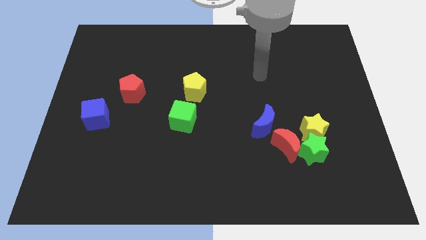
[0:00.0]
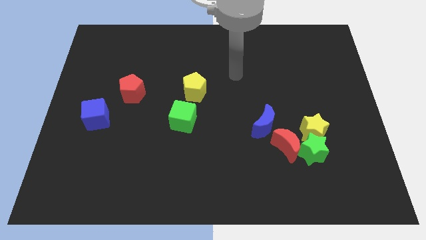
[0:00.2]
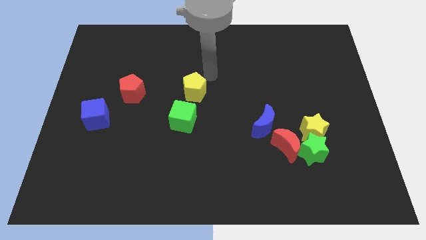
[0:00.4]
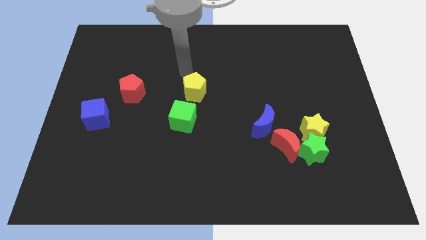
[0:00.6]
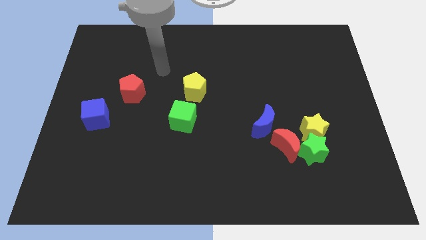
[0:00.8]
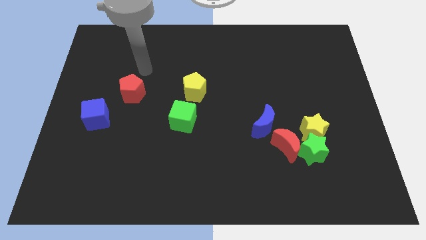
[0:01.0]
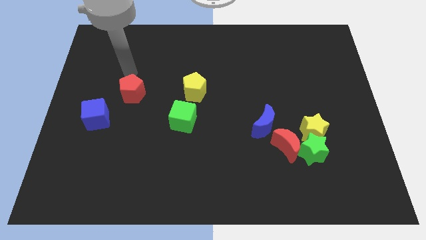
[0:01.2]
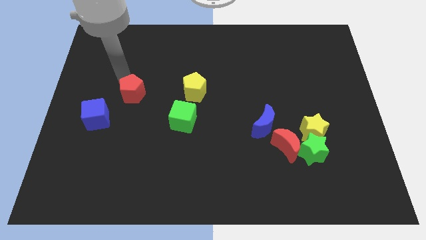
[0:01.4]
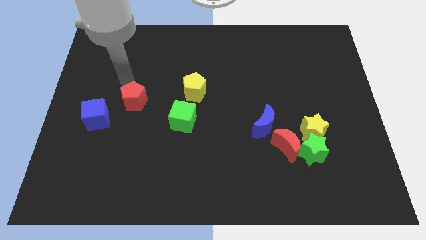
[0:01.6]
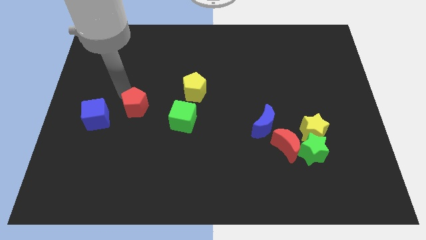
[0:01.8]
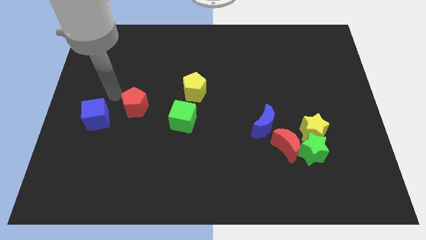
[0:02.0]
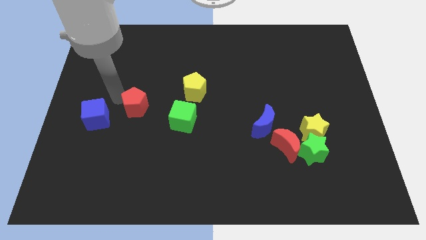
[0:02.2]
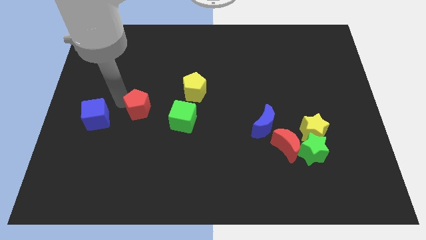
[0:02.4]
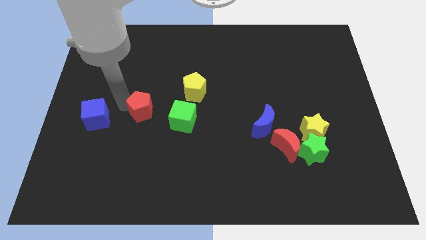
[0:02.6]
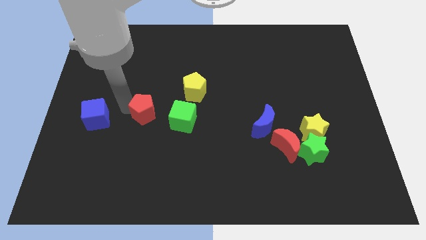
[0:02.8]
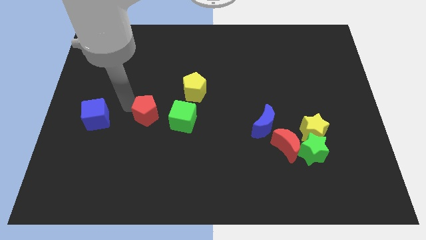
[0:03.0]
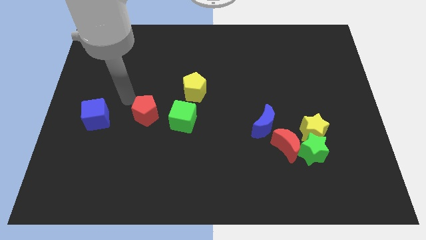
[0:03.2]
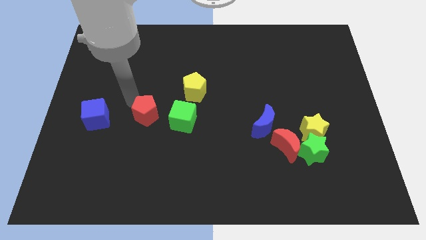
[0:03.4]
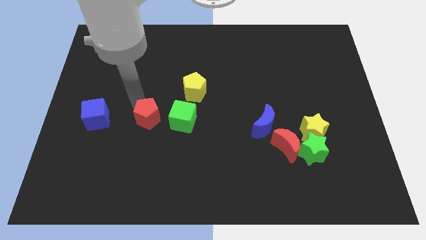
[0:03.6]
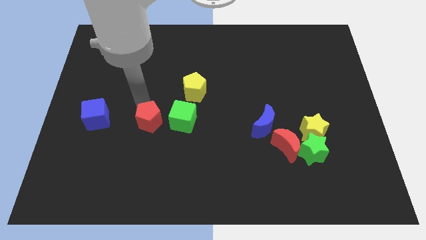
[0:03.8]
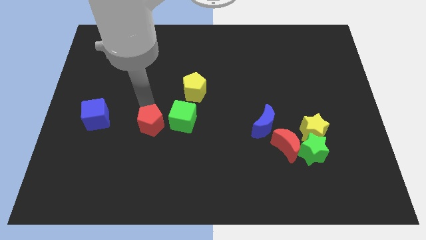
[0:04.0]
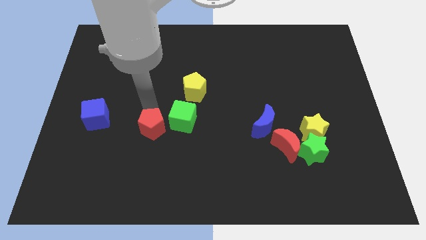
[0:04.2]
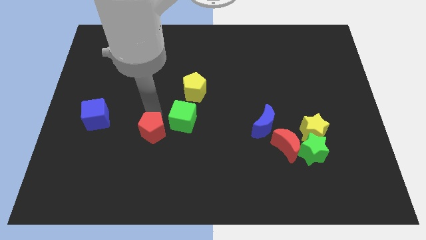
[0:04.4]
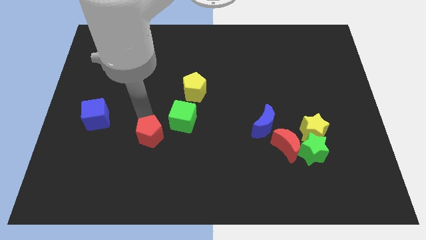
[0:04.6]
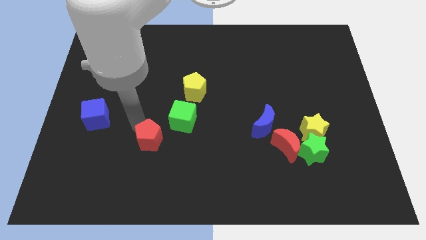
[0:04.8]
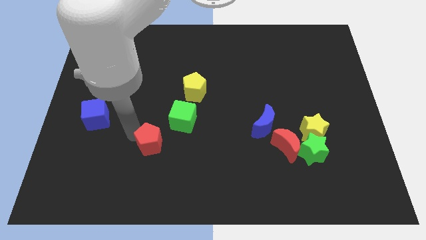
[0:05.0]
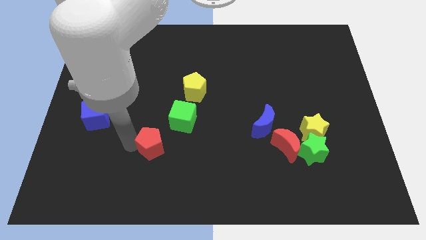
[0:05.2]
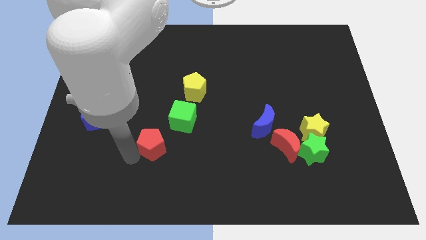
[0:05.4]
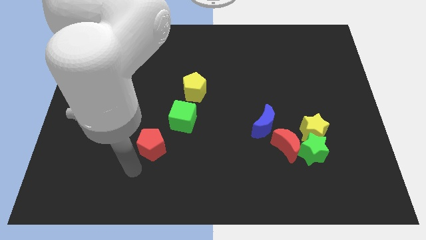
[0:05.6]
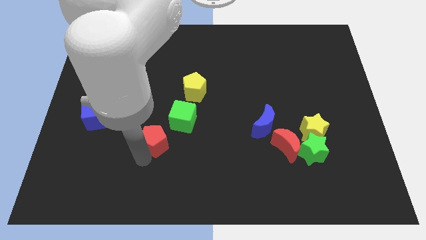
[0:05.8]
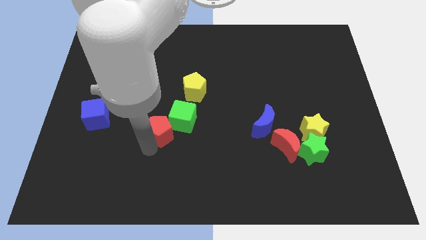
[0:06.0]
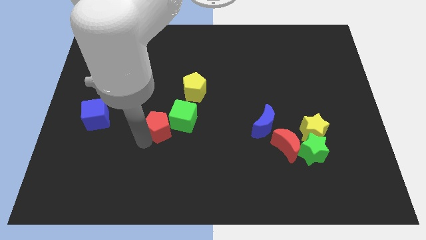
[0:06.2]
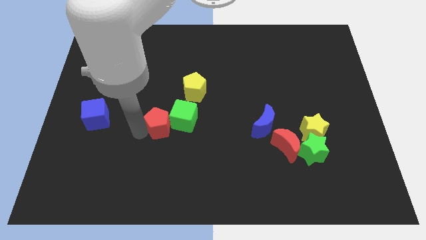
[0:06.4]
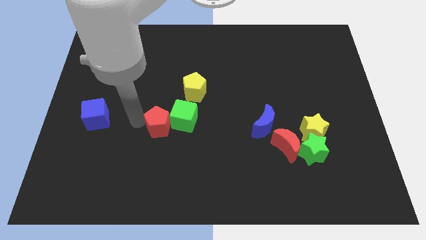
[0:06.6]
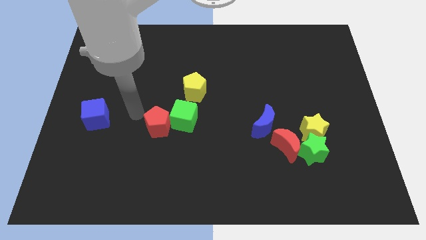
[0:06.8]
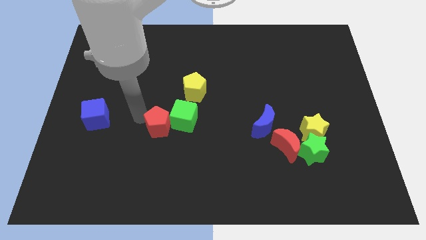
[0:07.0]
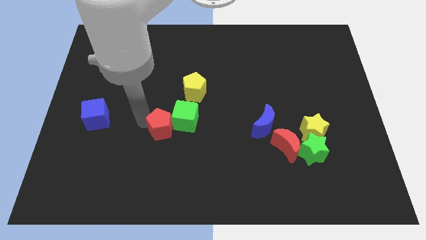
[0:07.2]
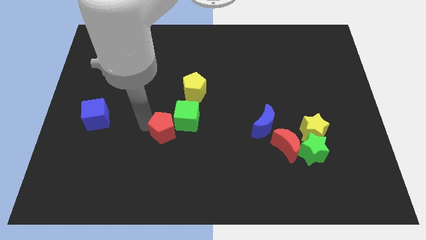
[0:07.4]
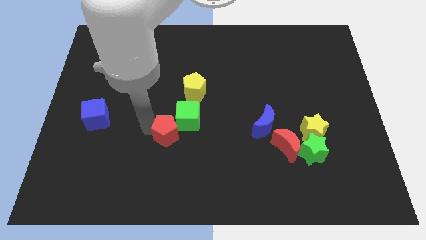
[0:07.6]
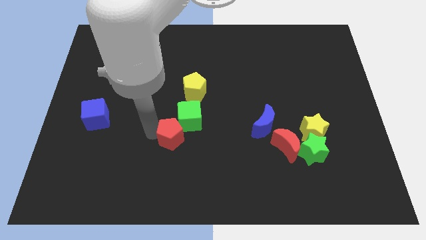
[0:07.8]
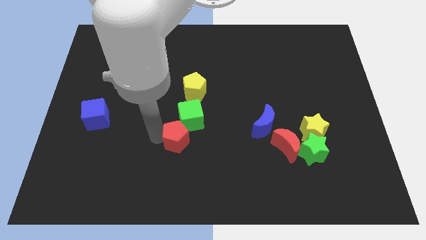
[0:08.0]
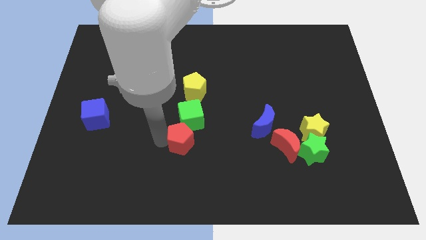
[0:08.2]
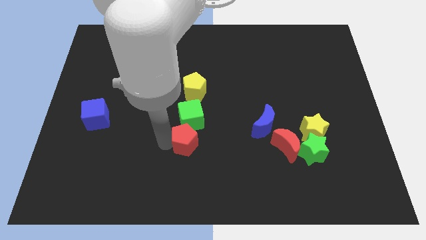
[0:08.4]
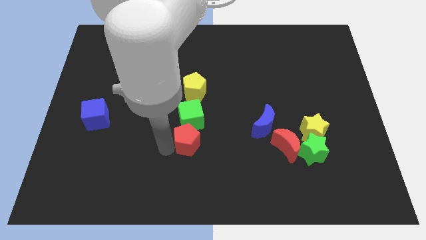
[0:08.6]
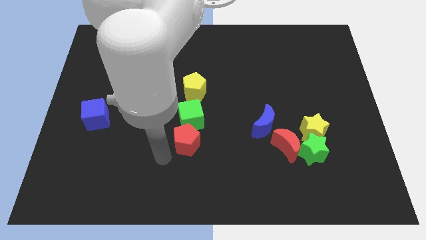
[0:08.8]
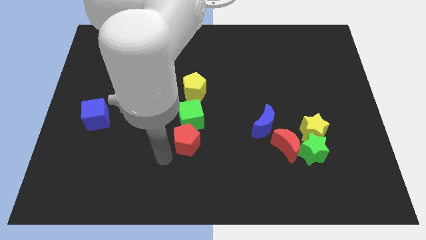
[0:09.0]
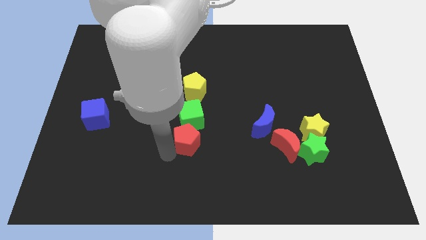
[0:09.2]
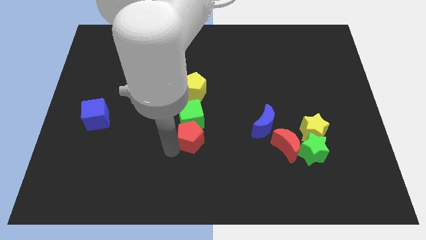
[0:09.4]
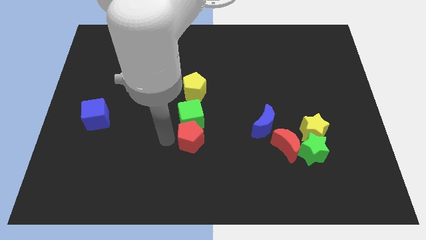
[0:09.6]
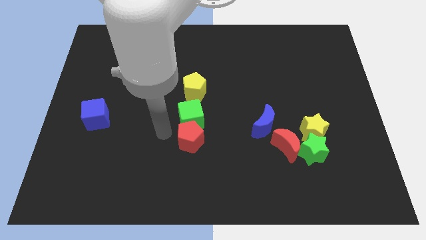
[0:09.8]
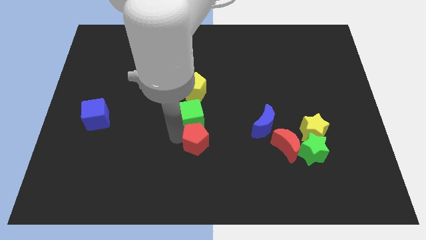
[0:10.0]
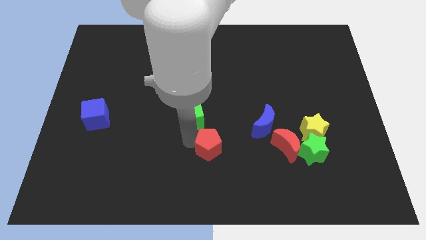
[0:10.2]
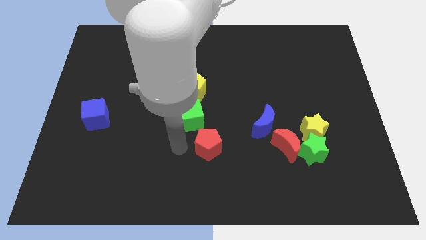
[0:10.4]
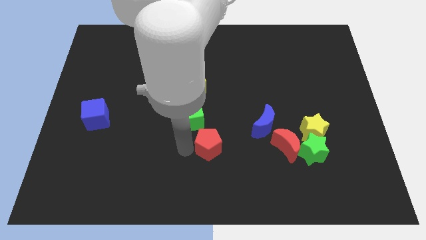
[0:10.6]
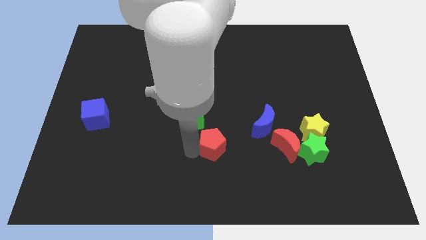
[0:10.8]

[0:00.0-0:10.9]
push the red pentagon to the left of the red moon

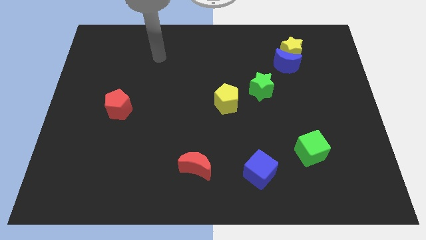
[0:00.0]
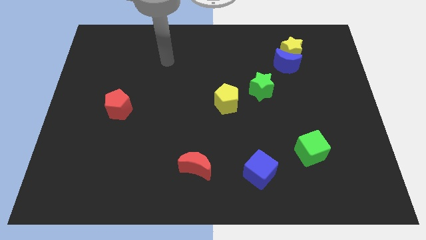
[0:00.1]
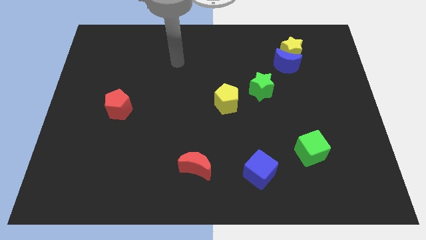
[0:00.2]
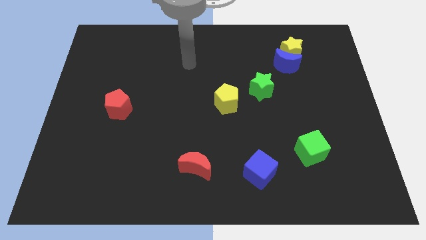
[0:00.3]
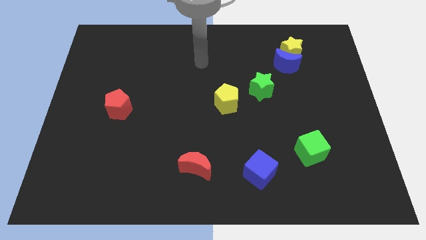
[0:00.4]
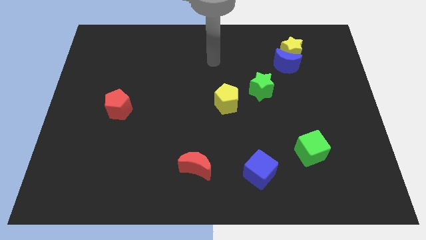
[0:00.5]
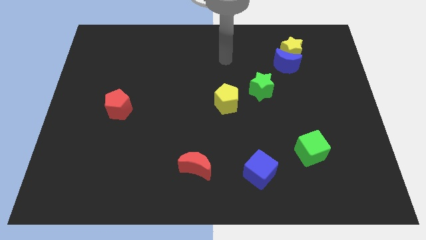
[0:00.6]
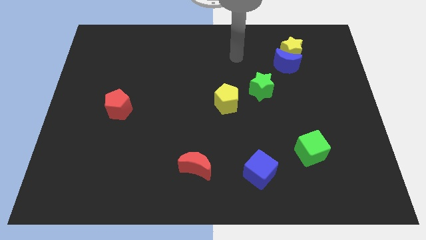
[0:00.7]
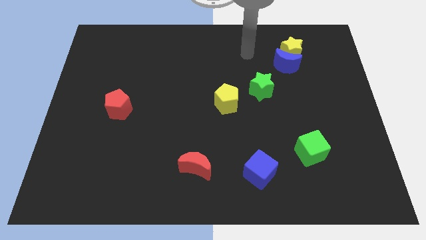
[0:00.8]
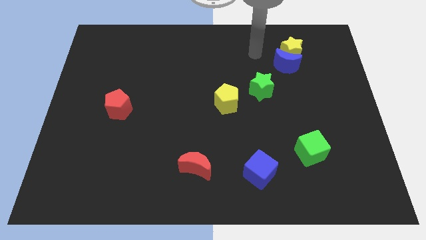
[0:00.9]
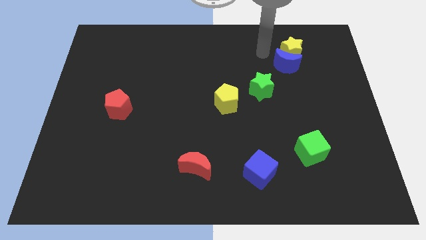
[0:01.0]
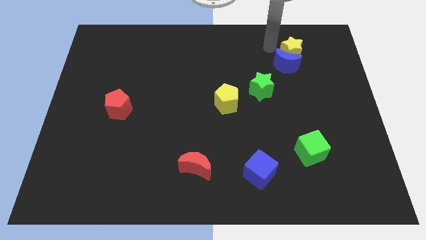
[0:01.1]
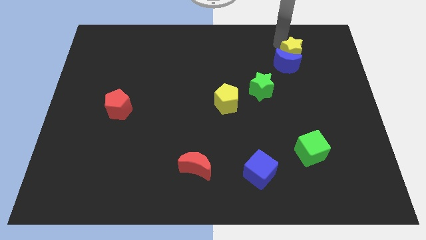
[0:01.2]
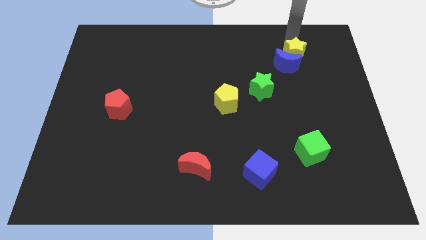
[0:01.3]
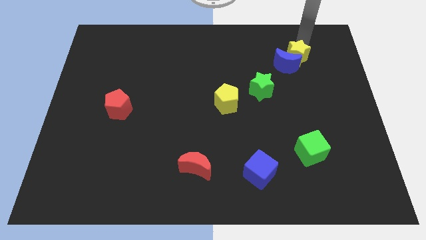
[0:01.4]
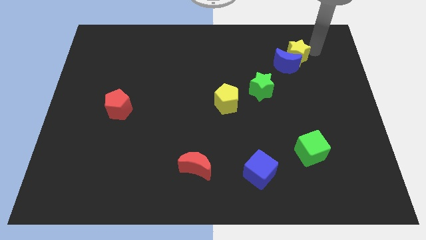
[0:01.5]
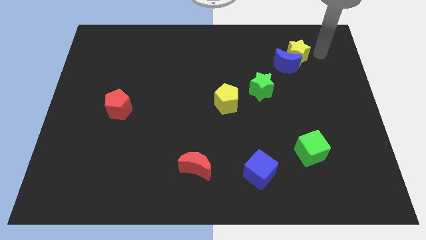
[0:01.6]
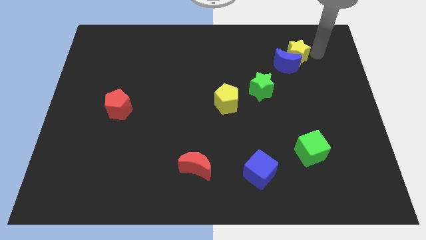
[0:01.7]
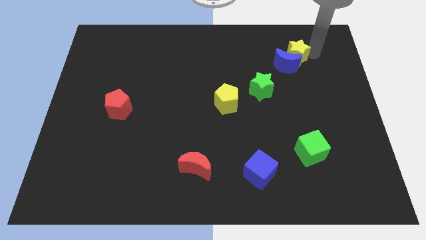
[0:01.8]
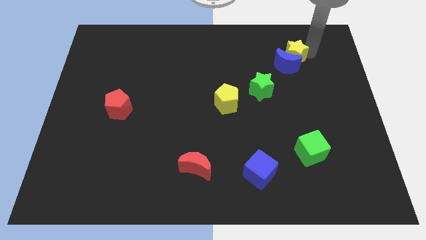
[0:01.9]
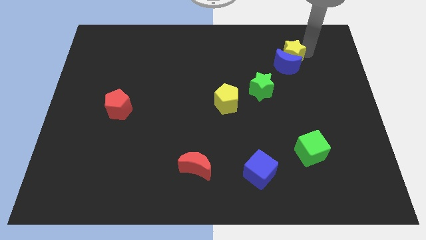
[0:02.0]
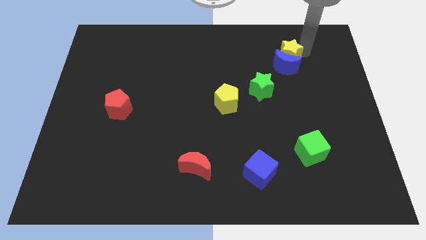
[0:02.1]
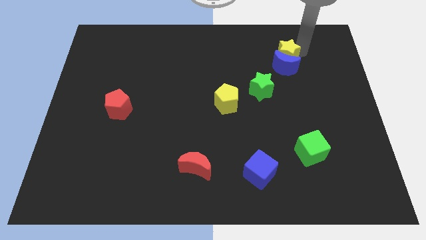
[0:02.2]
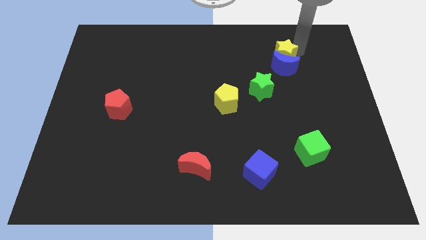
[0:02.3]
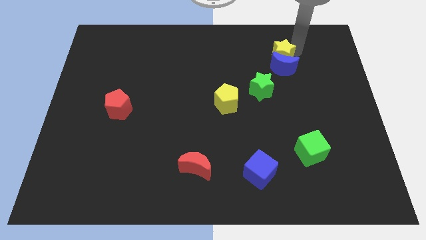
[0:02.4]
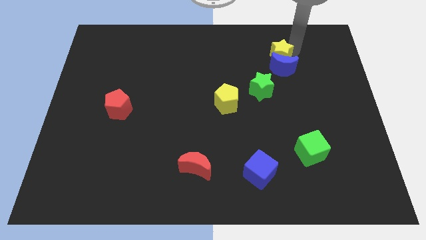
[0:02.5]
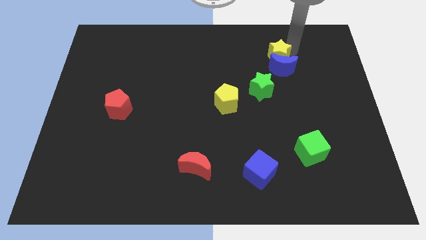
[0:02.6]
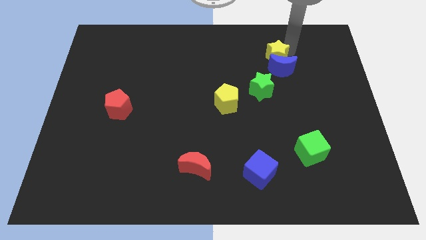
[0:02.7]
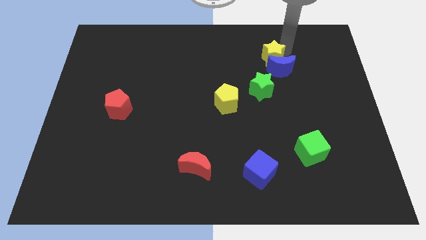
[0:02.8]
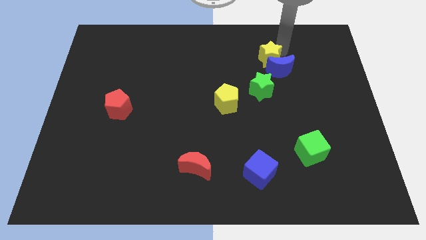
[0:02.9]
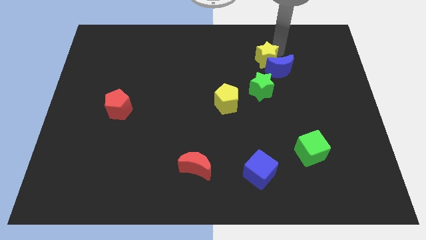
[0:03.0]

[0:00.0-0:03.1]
move the yellow star just left of the blue moon
